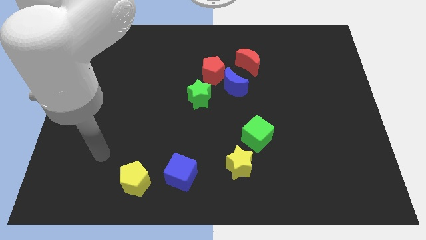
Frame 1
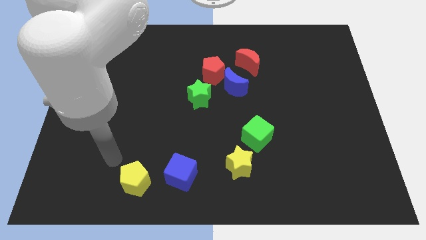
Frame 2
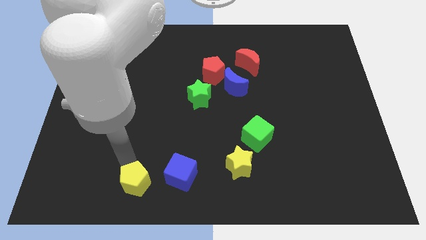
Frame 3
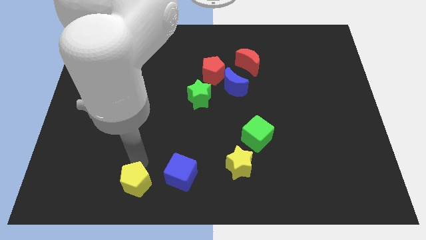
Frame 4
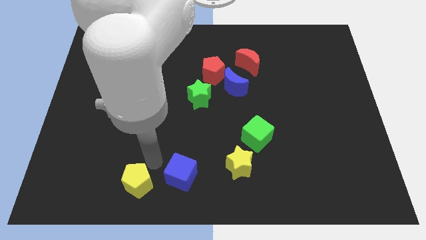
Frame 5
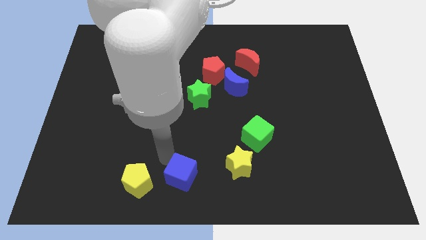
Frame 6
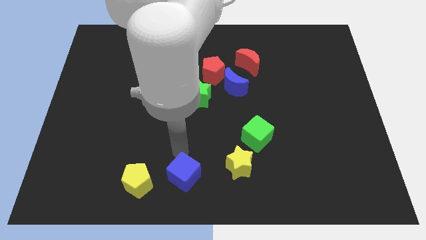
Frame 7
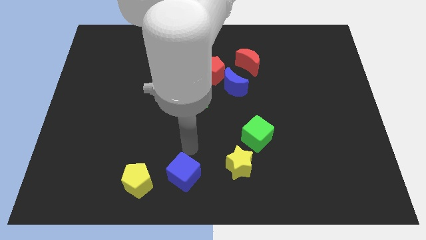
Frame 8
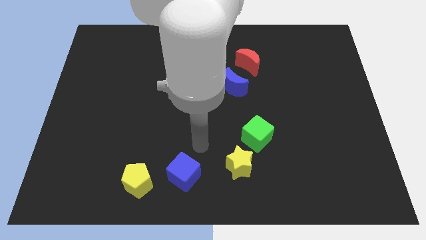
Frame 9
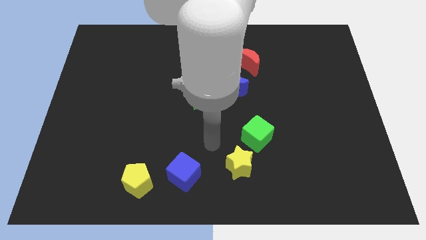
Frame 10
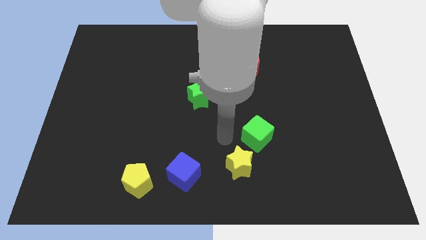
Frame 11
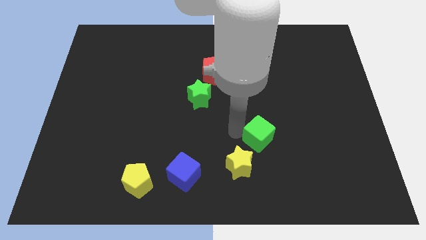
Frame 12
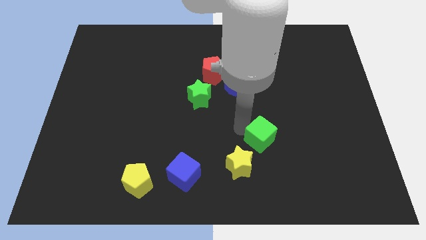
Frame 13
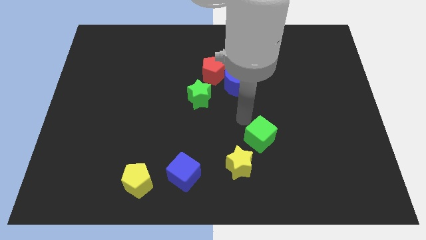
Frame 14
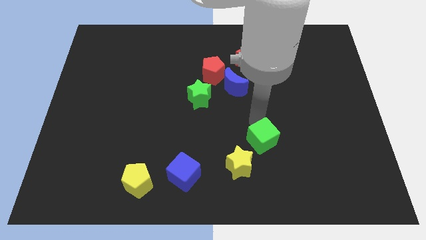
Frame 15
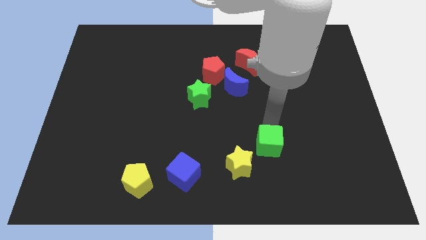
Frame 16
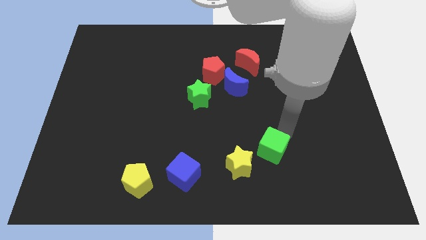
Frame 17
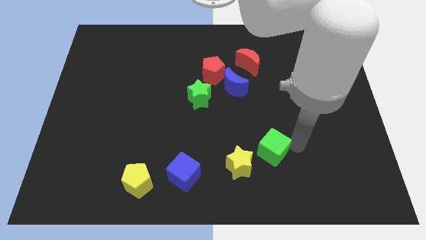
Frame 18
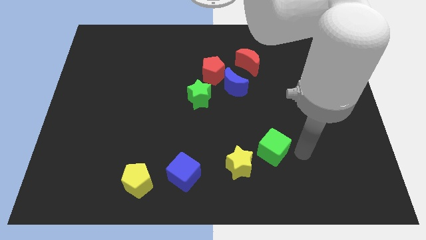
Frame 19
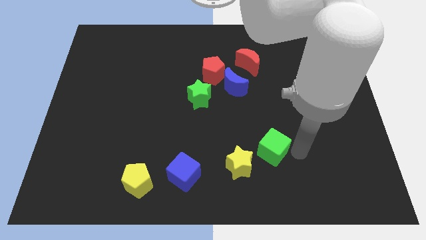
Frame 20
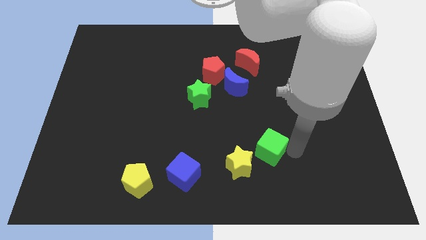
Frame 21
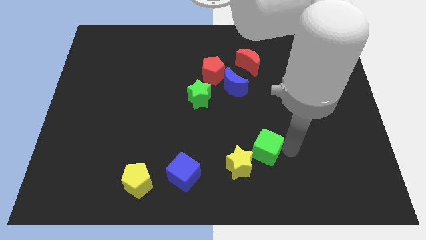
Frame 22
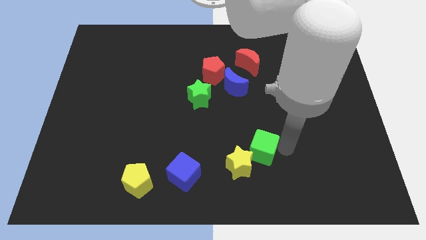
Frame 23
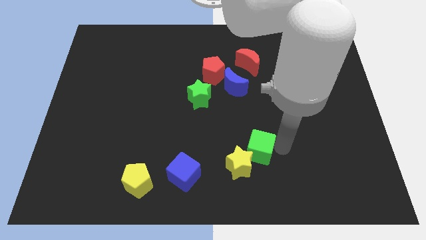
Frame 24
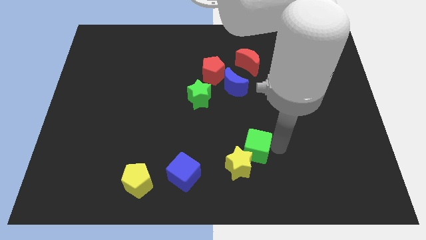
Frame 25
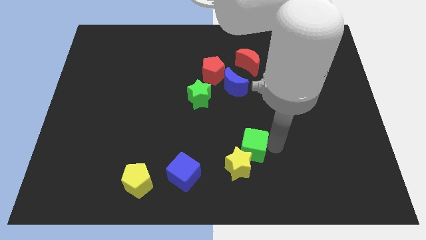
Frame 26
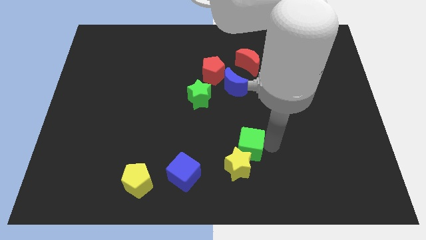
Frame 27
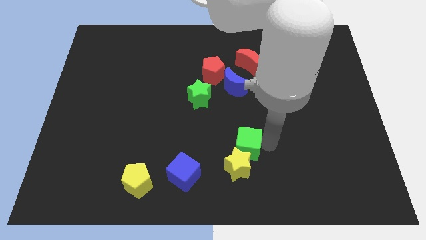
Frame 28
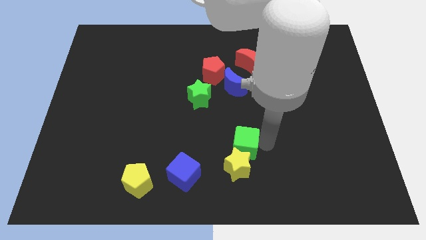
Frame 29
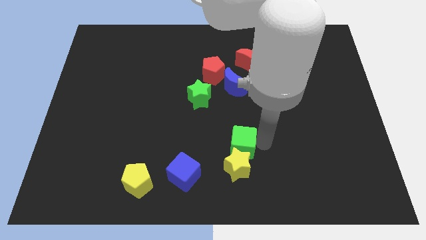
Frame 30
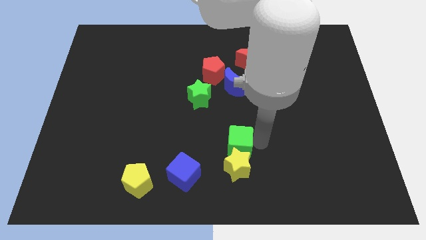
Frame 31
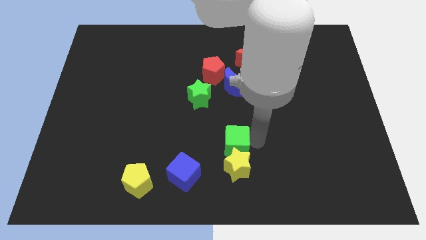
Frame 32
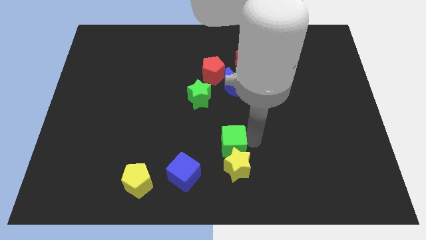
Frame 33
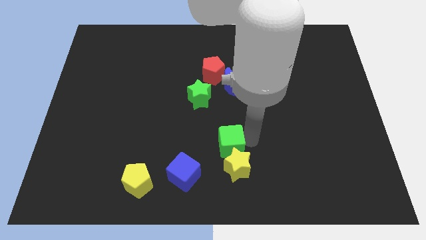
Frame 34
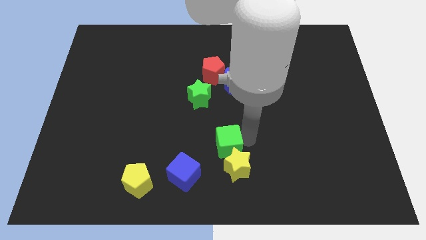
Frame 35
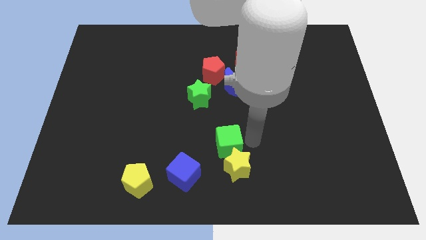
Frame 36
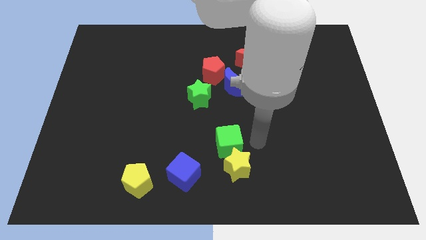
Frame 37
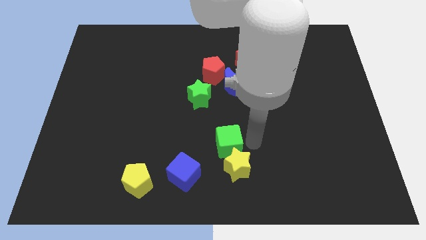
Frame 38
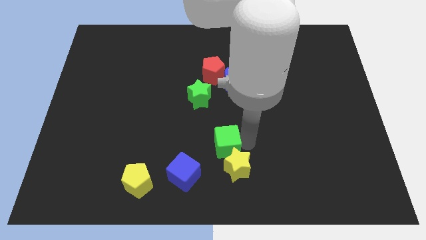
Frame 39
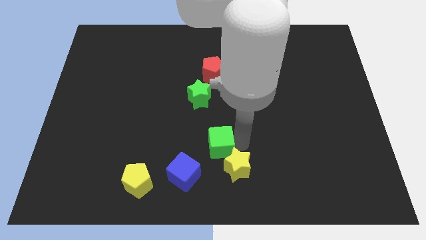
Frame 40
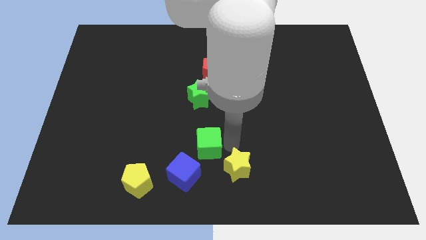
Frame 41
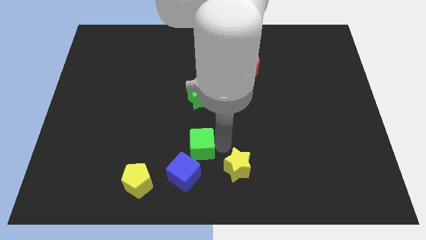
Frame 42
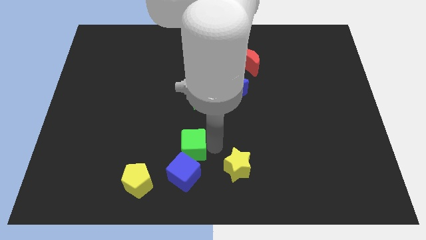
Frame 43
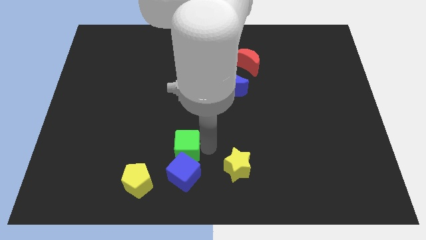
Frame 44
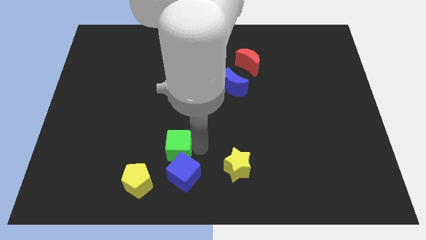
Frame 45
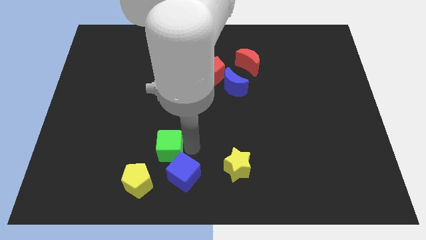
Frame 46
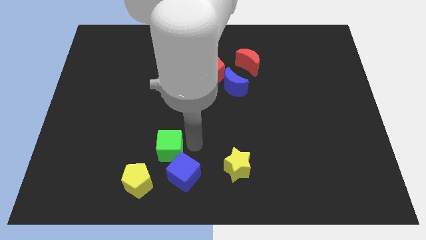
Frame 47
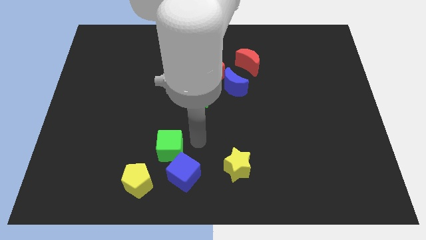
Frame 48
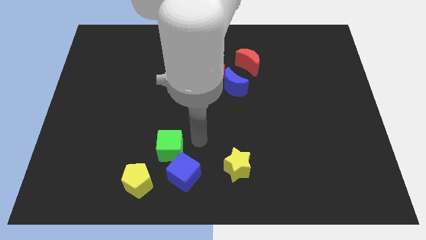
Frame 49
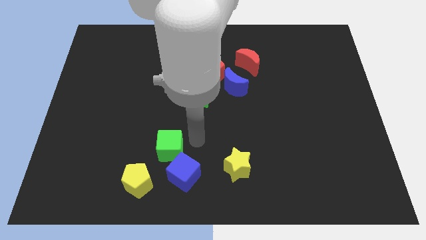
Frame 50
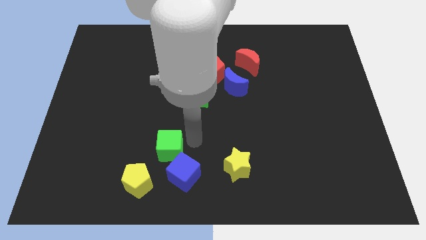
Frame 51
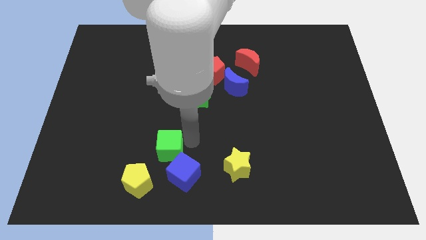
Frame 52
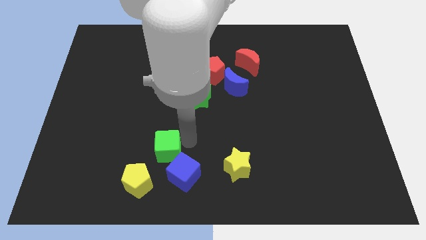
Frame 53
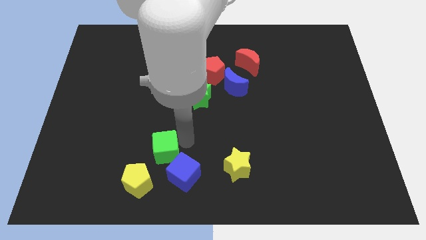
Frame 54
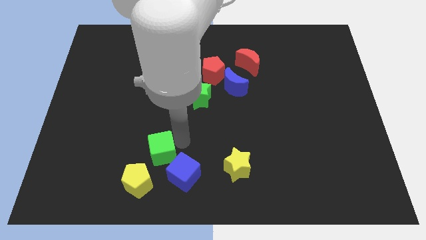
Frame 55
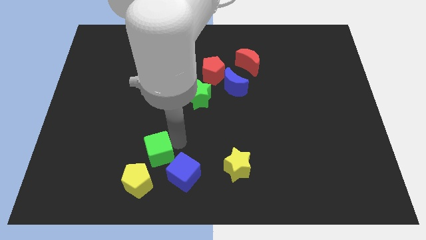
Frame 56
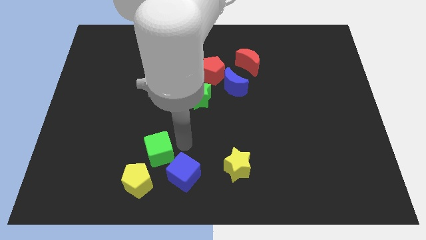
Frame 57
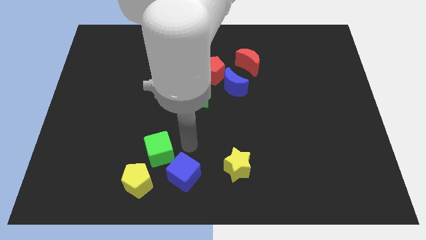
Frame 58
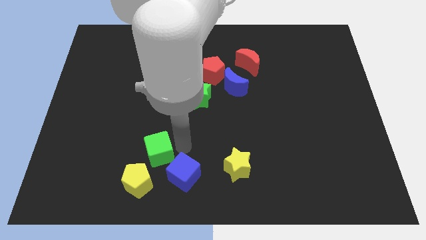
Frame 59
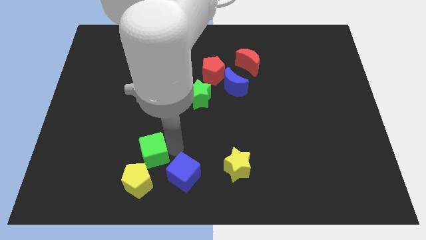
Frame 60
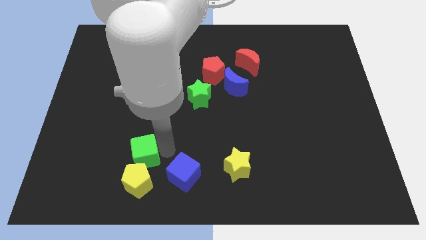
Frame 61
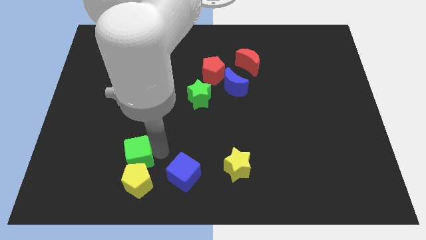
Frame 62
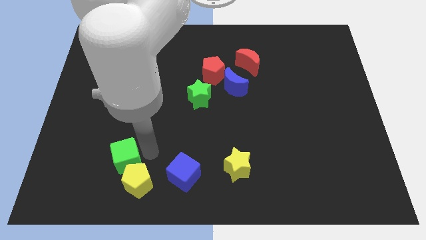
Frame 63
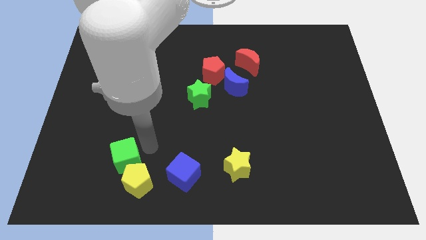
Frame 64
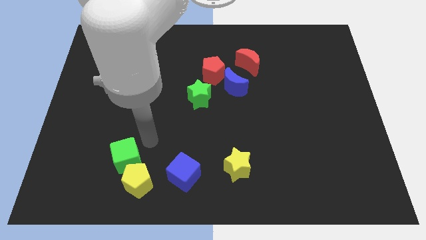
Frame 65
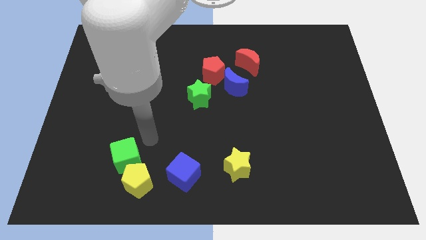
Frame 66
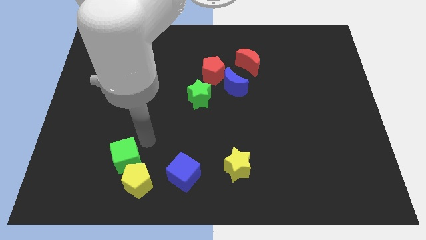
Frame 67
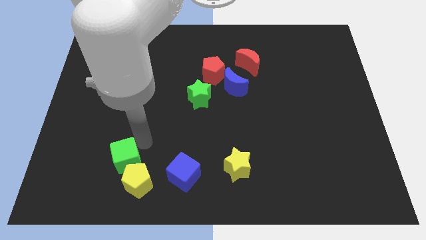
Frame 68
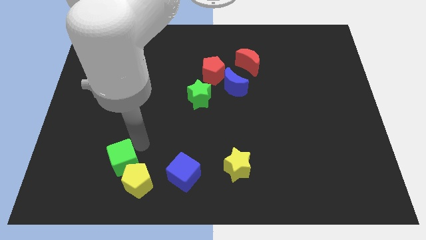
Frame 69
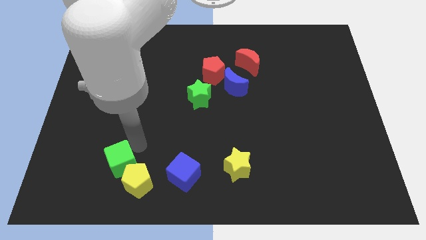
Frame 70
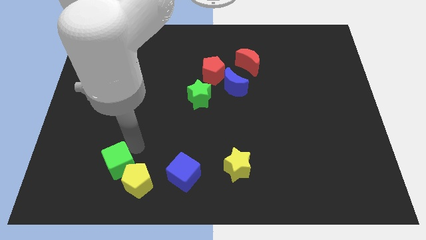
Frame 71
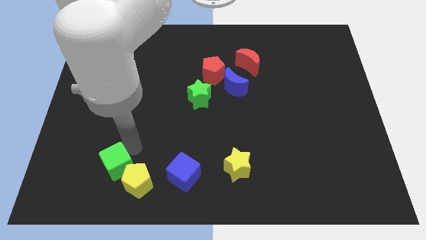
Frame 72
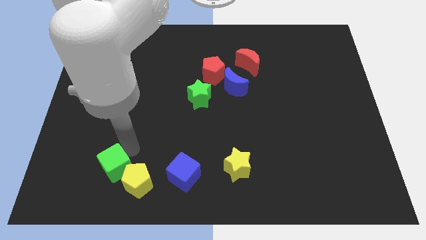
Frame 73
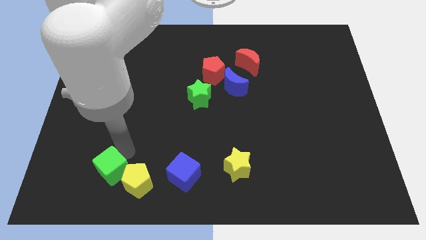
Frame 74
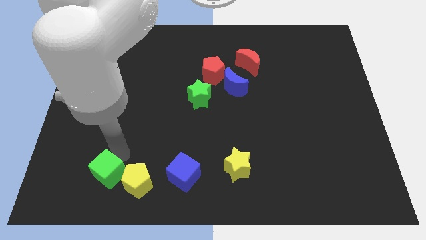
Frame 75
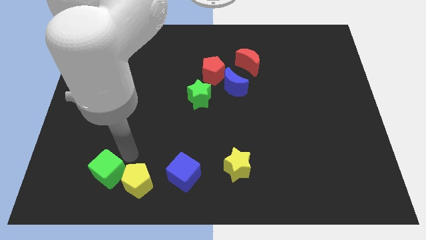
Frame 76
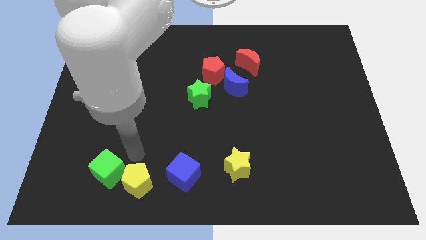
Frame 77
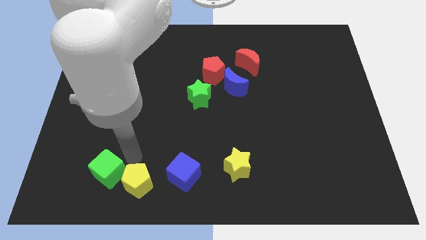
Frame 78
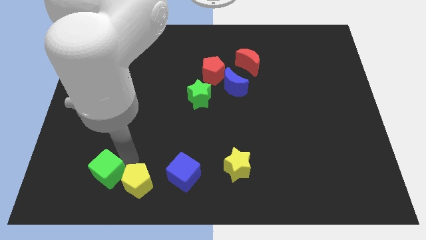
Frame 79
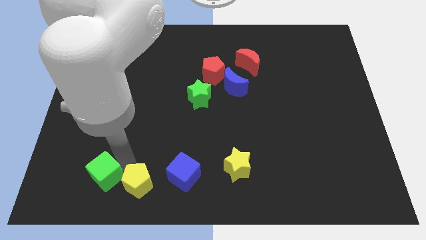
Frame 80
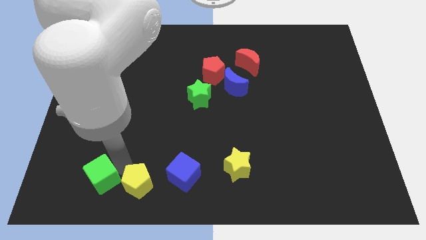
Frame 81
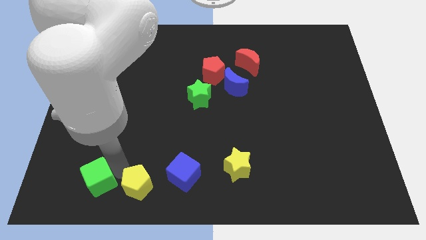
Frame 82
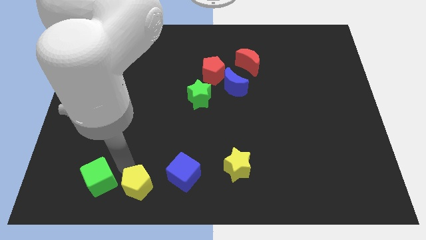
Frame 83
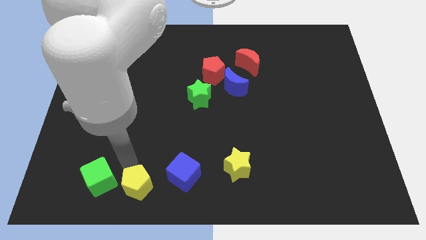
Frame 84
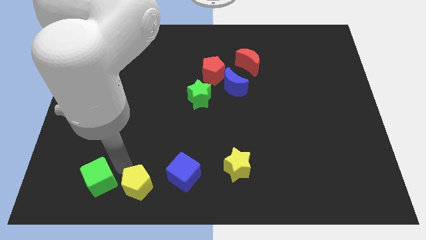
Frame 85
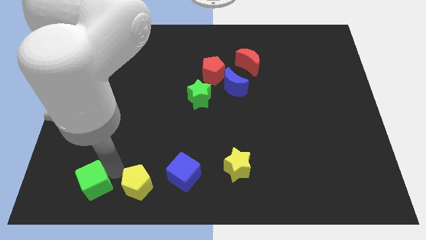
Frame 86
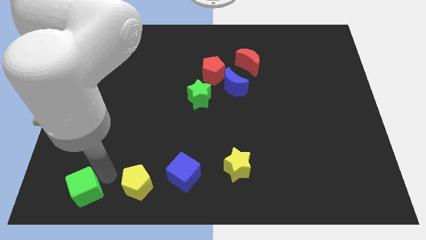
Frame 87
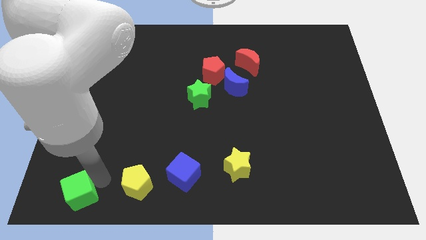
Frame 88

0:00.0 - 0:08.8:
slide the green cube to the bottom left corner
